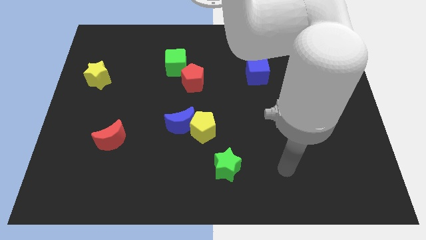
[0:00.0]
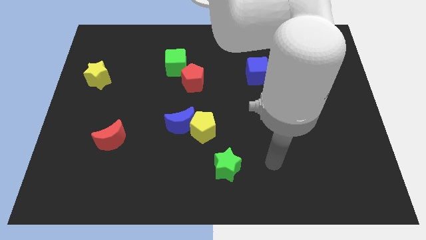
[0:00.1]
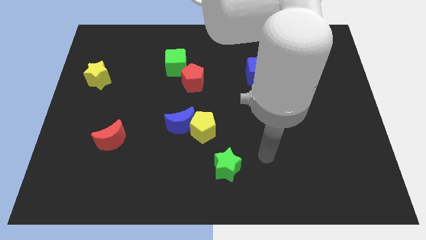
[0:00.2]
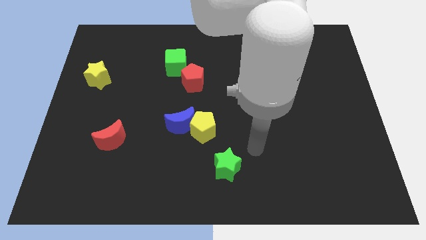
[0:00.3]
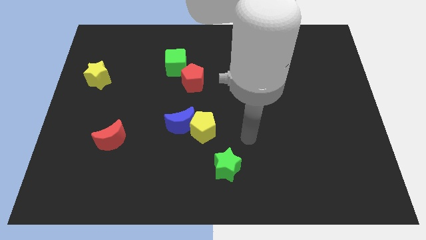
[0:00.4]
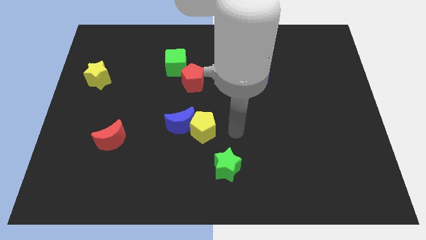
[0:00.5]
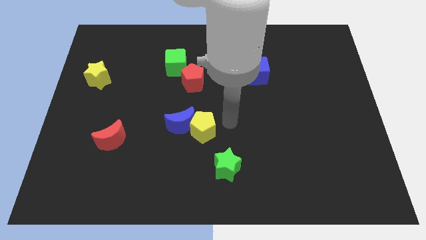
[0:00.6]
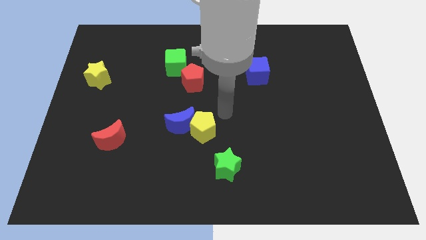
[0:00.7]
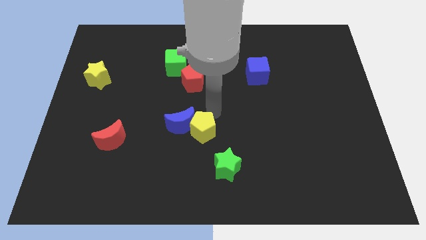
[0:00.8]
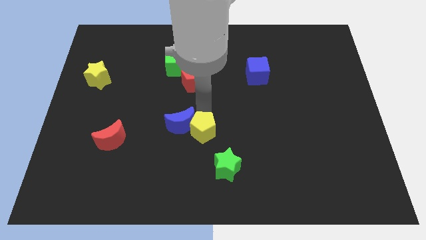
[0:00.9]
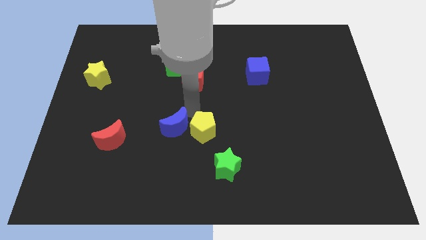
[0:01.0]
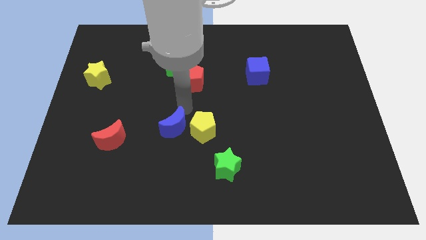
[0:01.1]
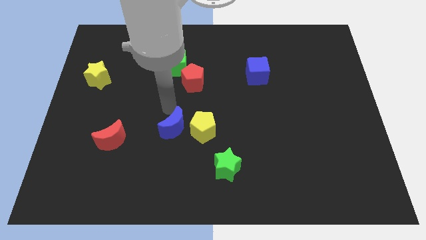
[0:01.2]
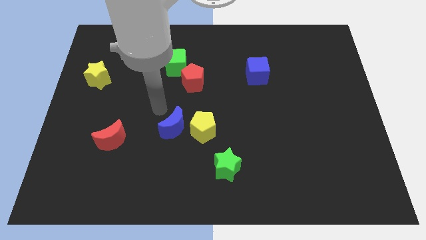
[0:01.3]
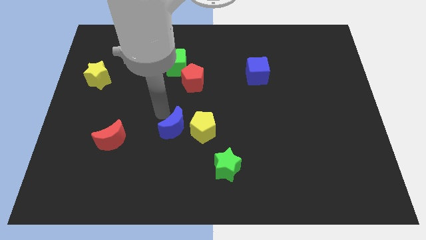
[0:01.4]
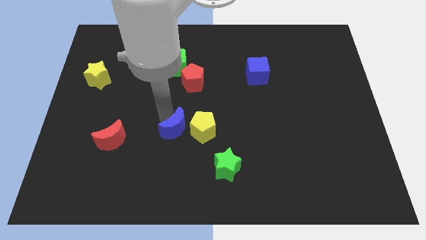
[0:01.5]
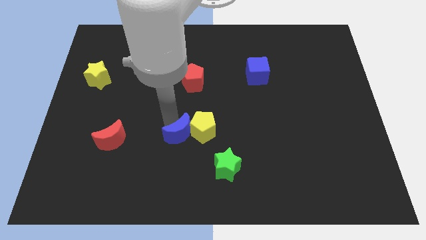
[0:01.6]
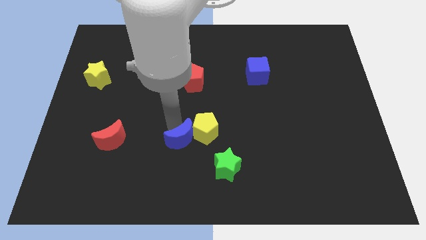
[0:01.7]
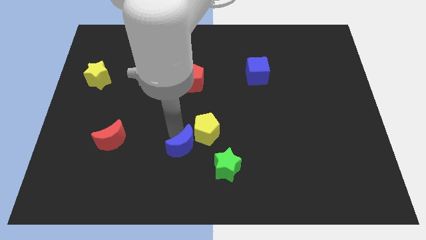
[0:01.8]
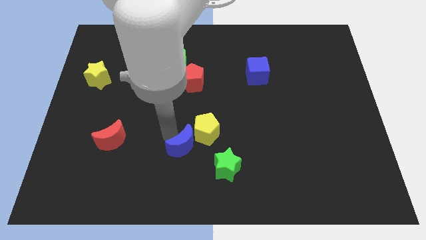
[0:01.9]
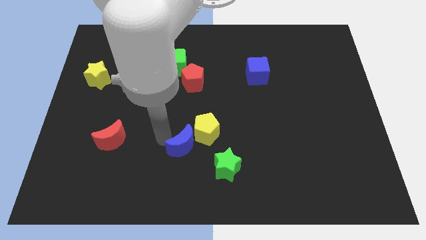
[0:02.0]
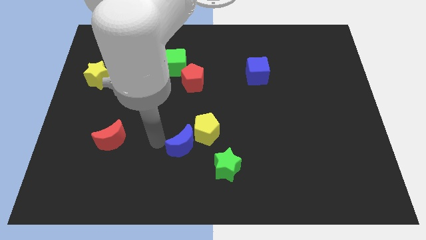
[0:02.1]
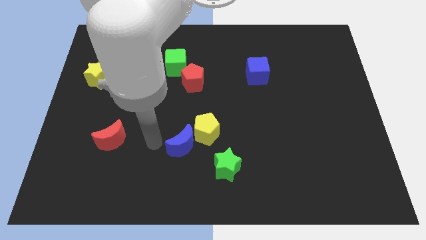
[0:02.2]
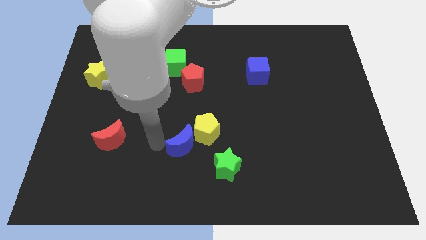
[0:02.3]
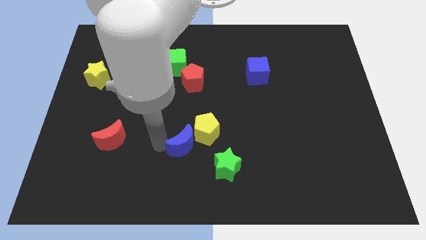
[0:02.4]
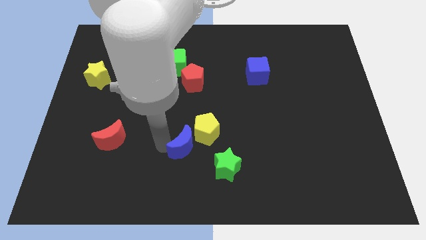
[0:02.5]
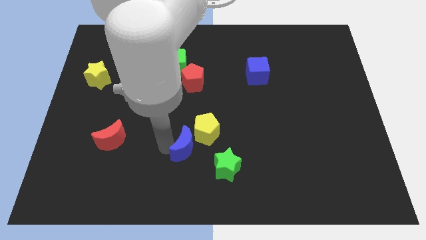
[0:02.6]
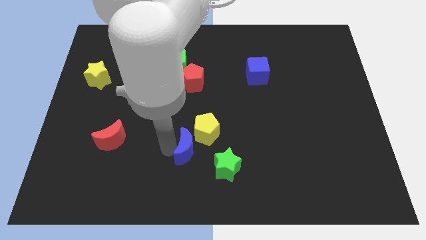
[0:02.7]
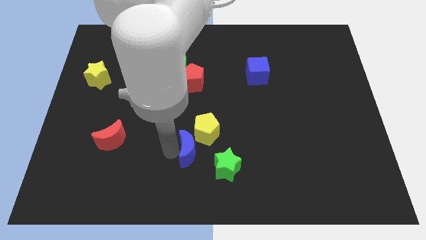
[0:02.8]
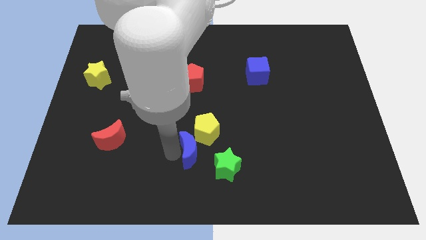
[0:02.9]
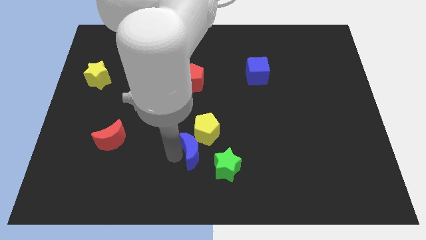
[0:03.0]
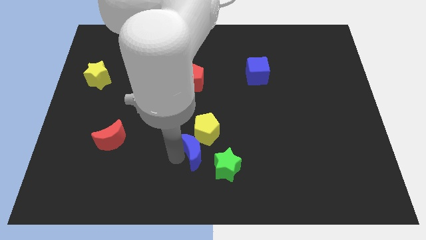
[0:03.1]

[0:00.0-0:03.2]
slightly push the blue moon diagonally down and right

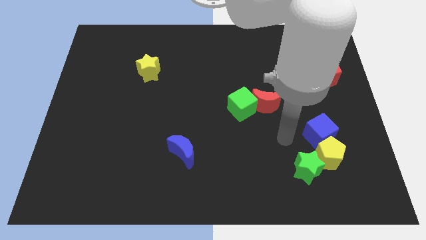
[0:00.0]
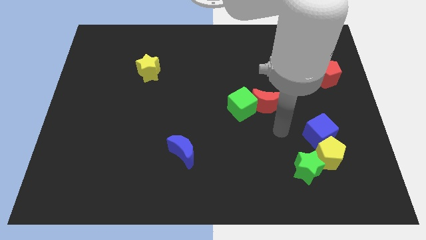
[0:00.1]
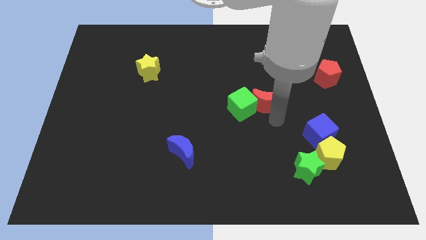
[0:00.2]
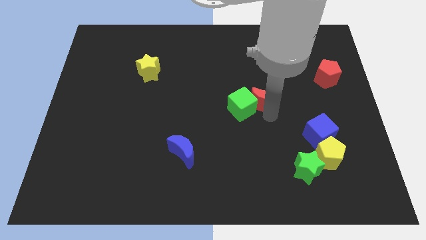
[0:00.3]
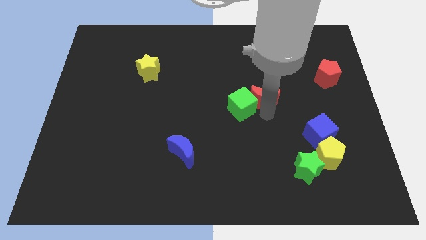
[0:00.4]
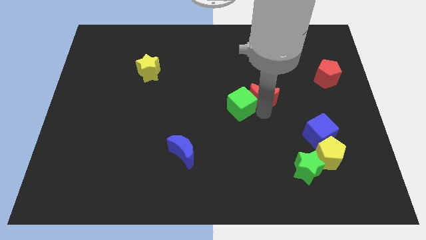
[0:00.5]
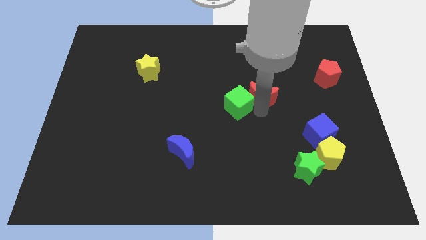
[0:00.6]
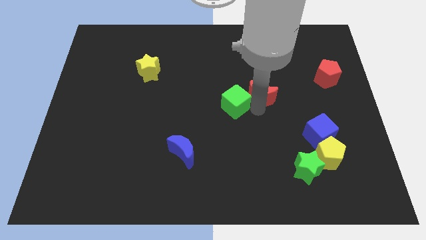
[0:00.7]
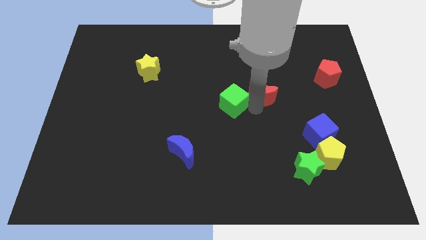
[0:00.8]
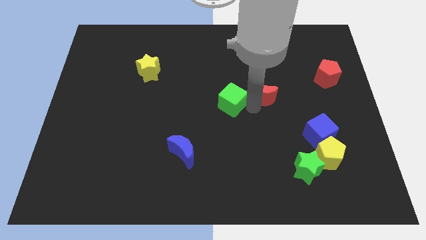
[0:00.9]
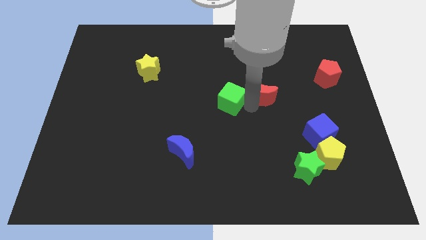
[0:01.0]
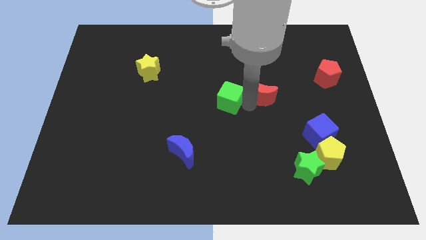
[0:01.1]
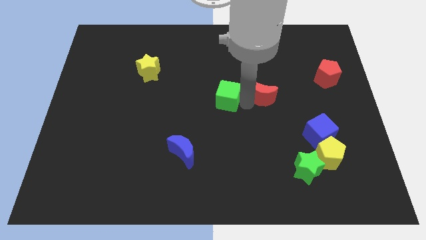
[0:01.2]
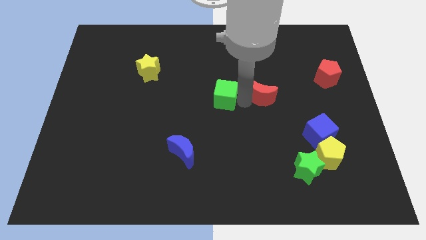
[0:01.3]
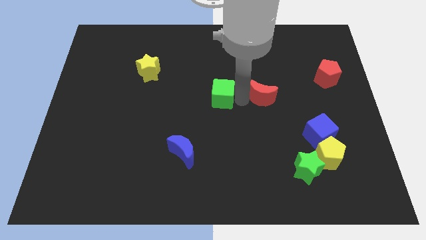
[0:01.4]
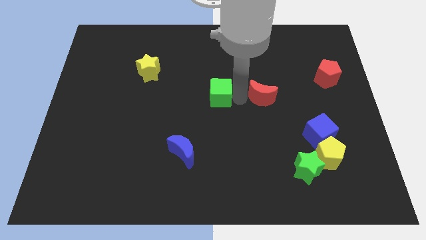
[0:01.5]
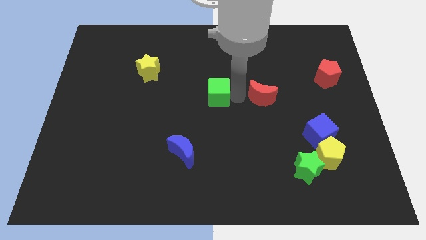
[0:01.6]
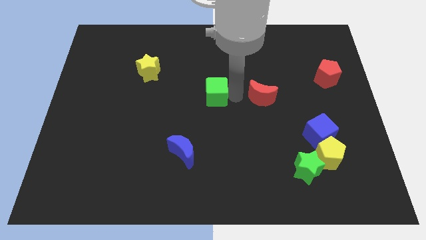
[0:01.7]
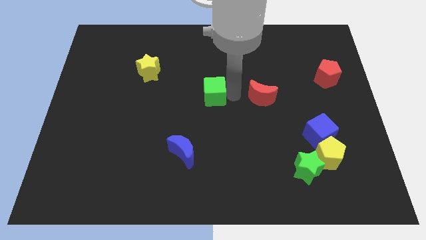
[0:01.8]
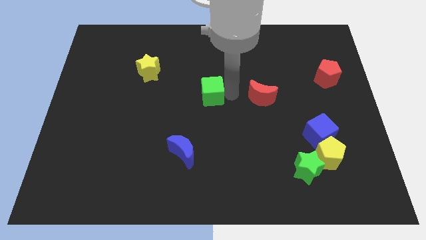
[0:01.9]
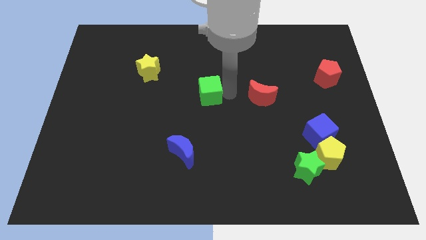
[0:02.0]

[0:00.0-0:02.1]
push the green cube left a little bit

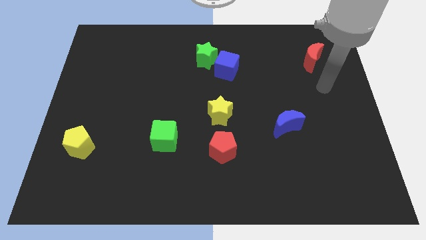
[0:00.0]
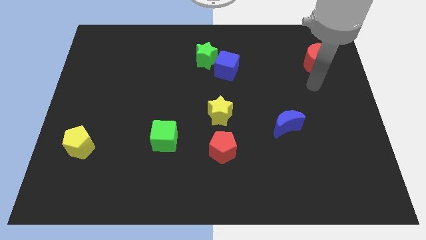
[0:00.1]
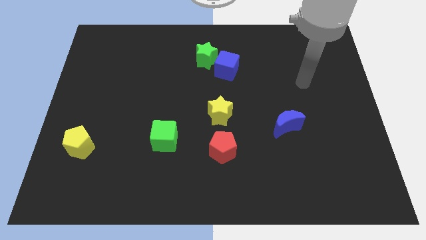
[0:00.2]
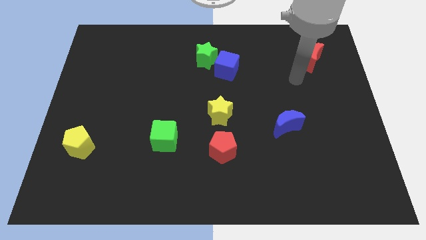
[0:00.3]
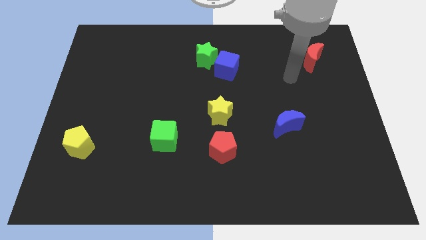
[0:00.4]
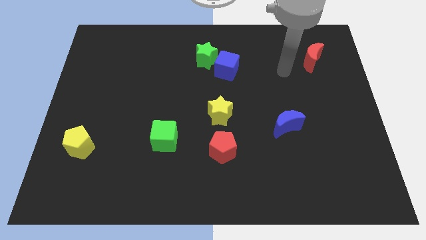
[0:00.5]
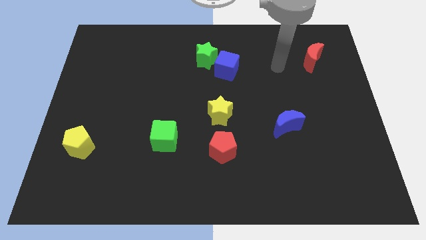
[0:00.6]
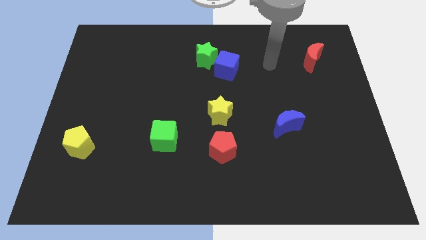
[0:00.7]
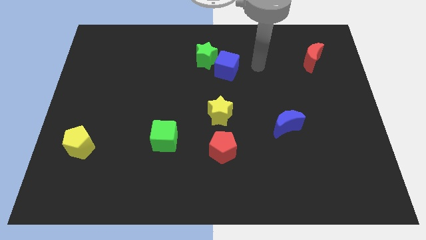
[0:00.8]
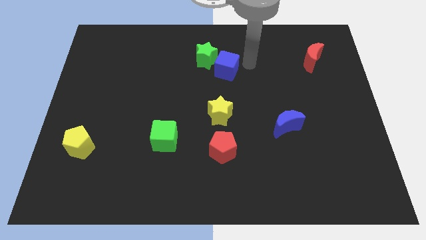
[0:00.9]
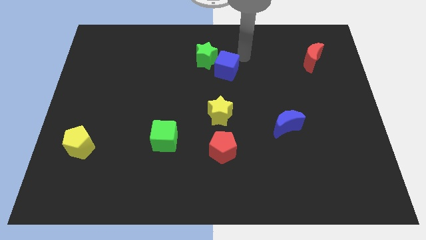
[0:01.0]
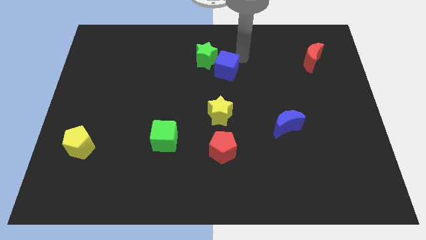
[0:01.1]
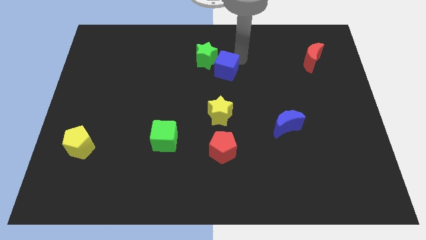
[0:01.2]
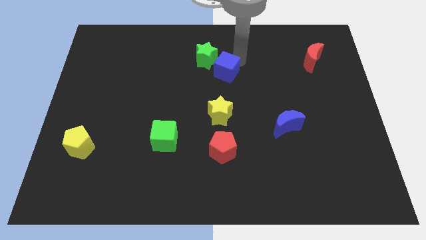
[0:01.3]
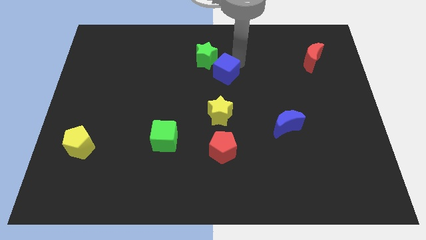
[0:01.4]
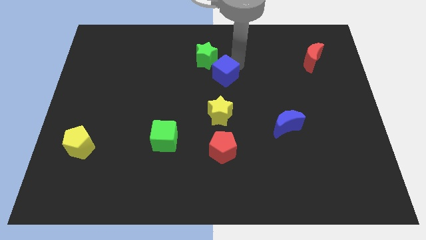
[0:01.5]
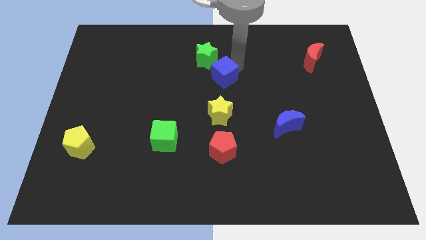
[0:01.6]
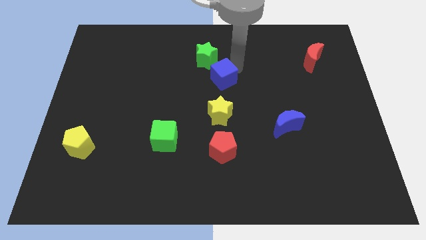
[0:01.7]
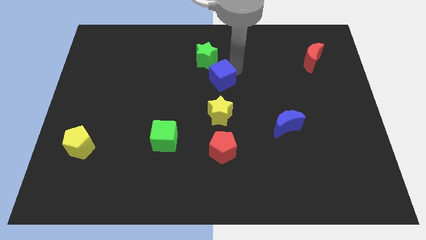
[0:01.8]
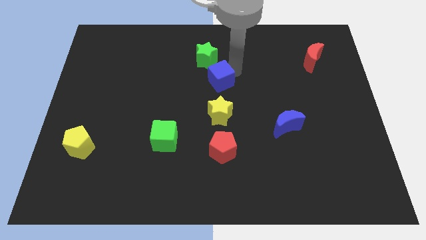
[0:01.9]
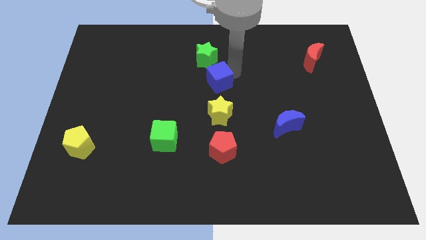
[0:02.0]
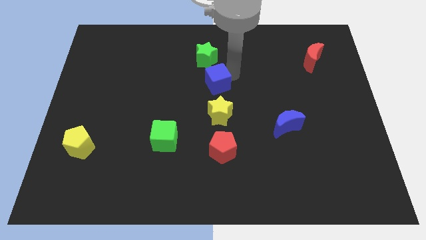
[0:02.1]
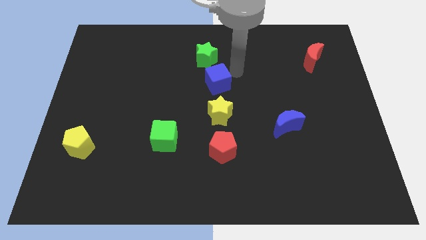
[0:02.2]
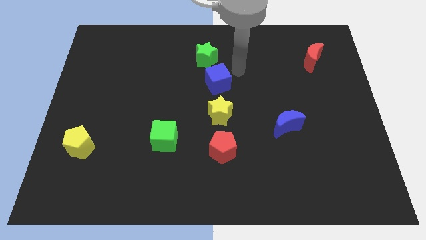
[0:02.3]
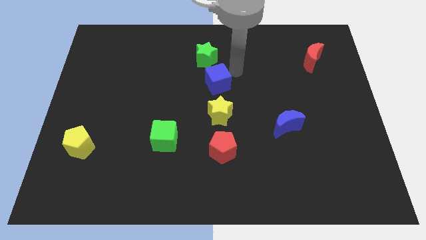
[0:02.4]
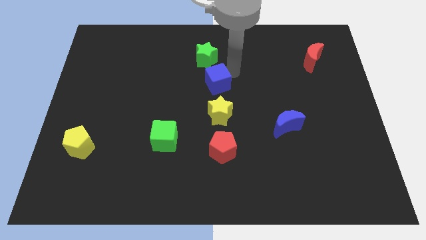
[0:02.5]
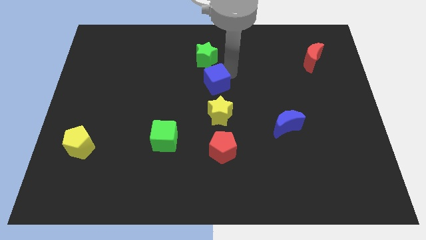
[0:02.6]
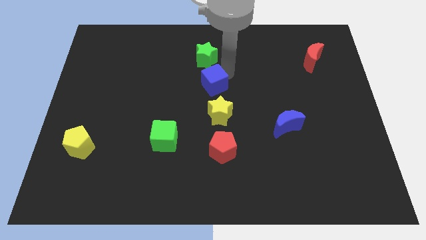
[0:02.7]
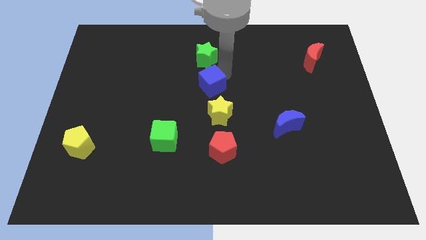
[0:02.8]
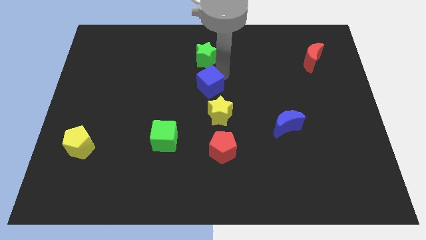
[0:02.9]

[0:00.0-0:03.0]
slightly push the blue cube down and then left

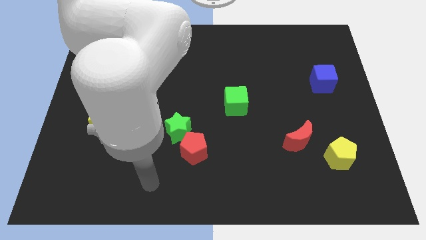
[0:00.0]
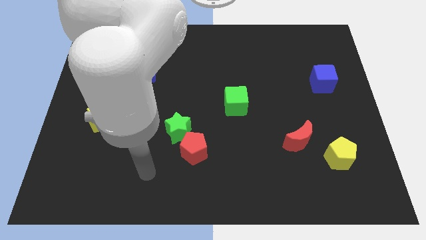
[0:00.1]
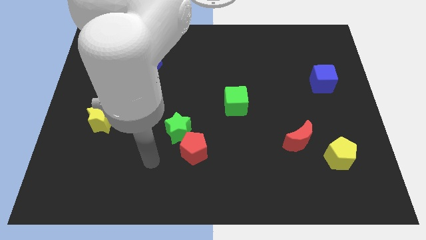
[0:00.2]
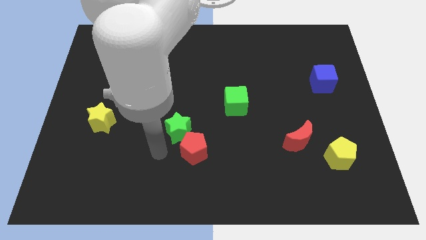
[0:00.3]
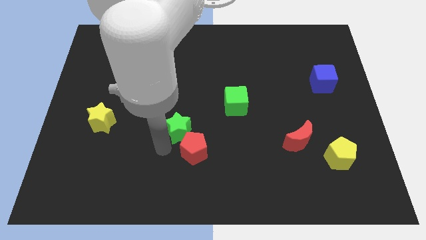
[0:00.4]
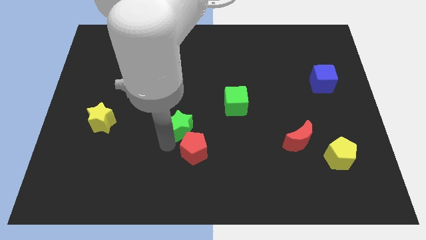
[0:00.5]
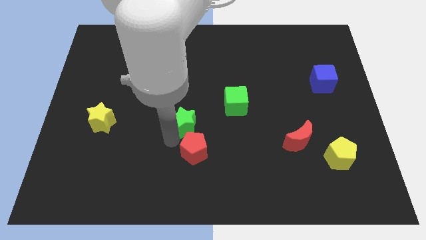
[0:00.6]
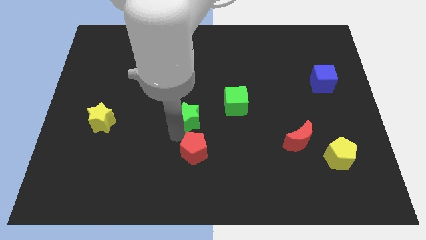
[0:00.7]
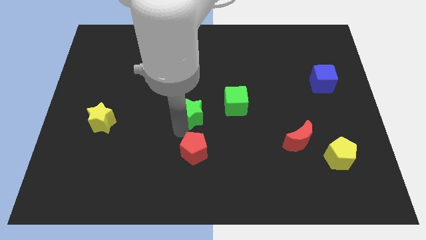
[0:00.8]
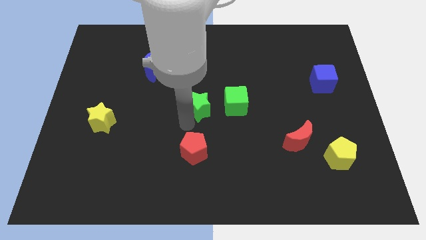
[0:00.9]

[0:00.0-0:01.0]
push the green star a little upwards and right diagonally
